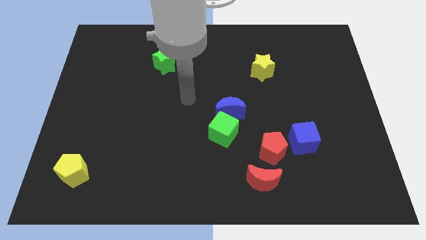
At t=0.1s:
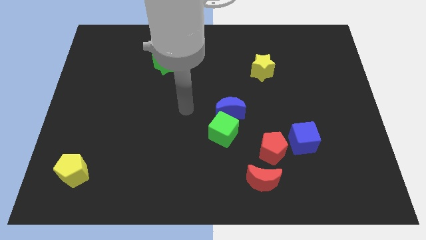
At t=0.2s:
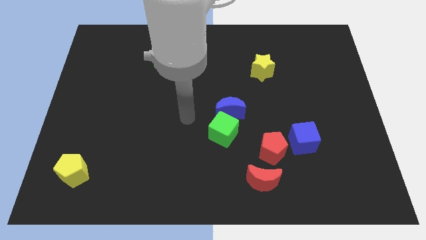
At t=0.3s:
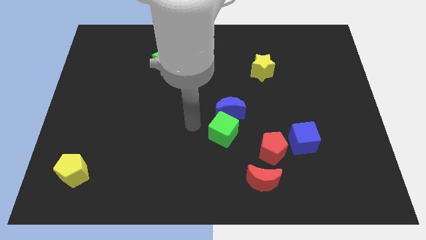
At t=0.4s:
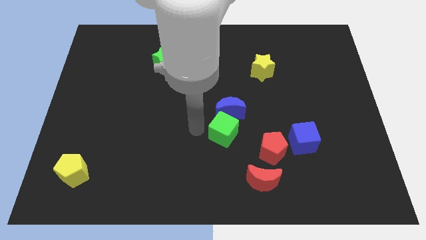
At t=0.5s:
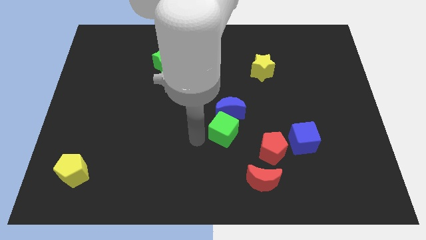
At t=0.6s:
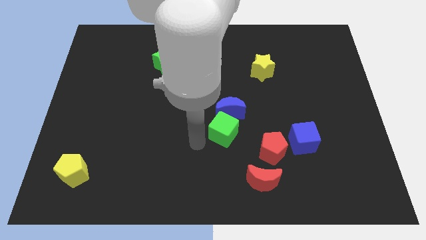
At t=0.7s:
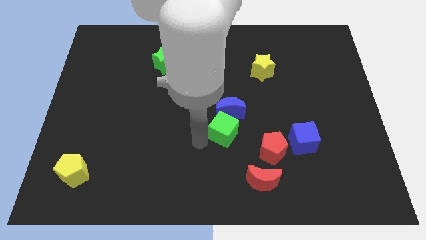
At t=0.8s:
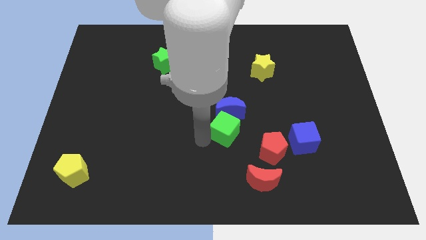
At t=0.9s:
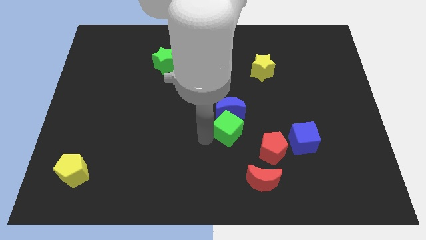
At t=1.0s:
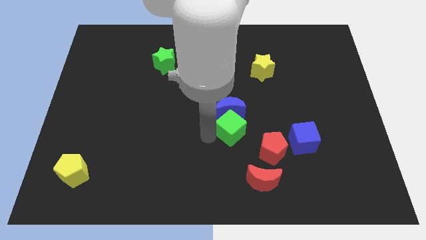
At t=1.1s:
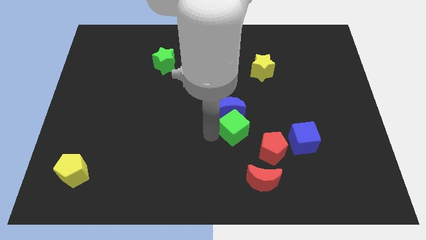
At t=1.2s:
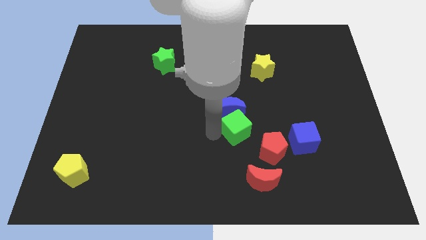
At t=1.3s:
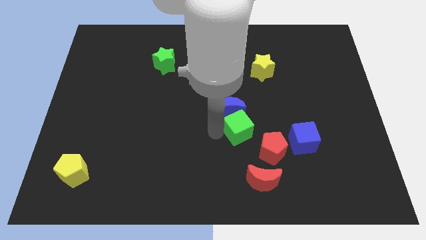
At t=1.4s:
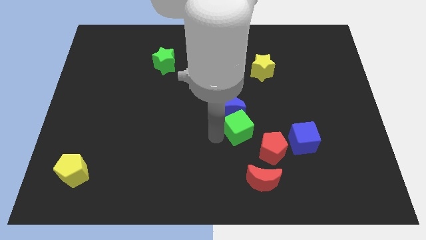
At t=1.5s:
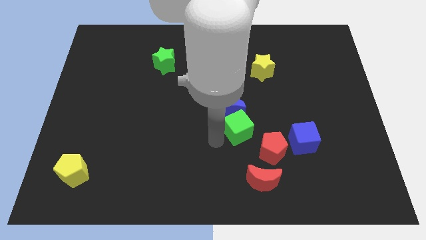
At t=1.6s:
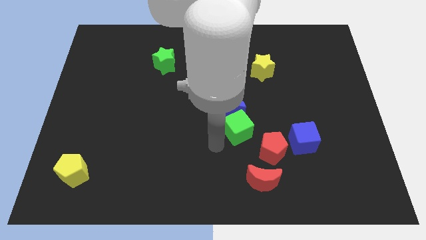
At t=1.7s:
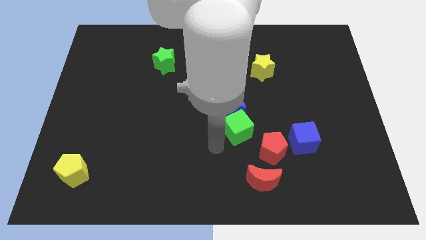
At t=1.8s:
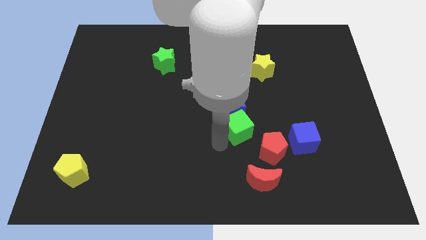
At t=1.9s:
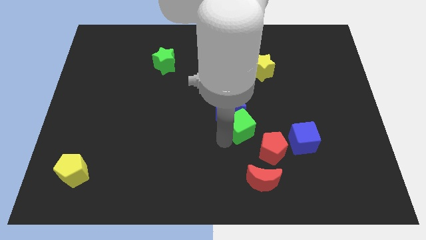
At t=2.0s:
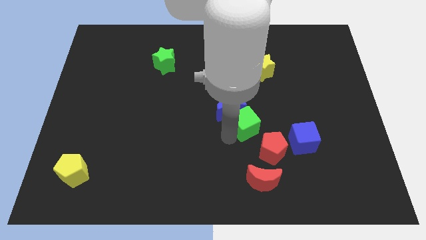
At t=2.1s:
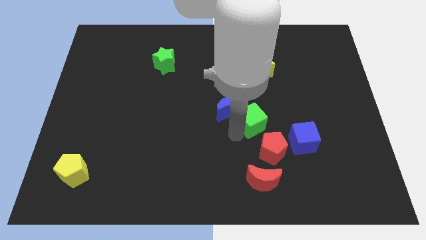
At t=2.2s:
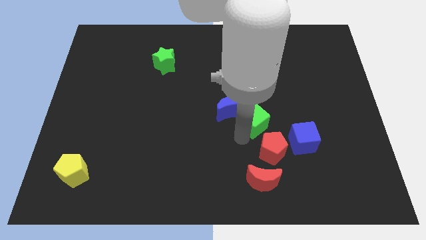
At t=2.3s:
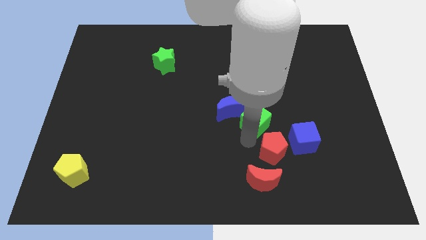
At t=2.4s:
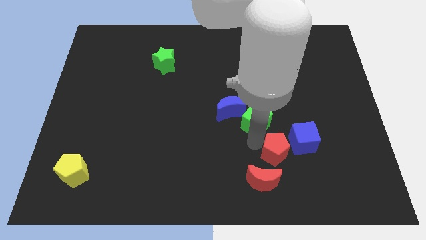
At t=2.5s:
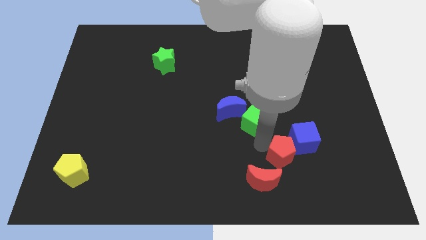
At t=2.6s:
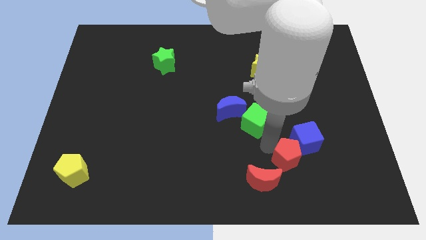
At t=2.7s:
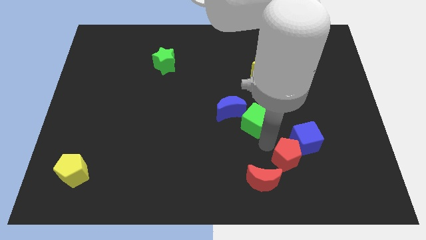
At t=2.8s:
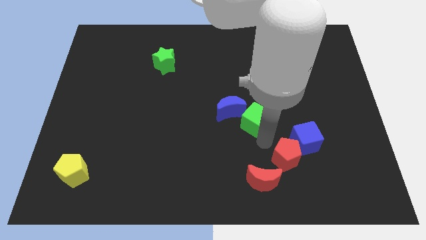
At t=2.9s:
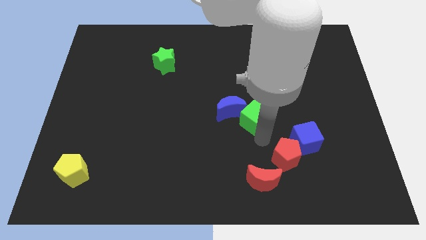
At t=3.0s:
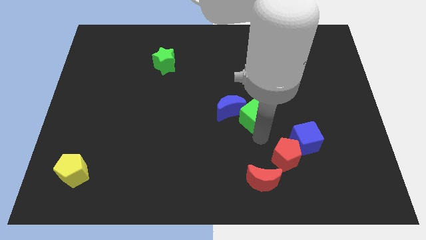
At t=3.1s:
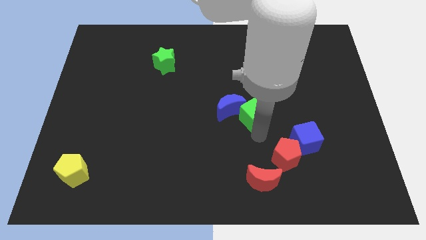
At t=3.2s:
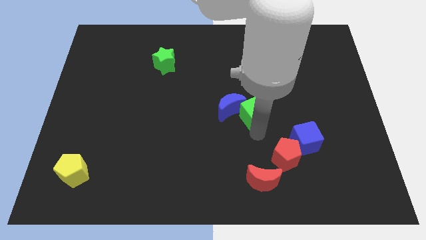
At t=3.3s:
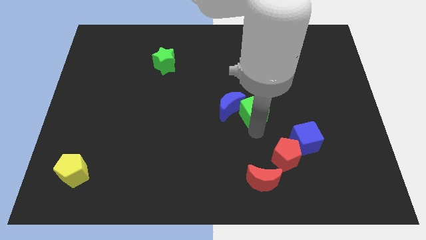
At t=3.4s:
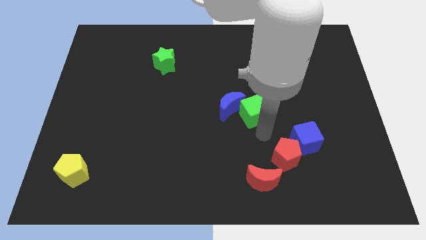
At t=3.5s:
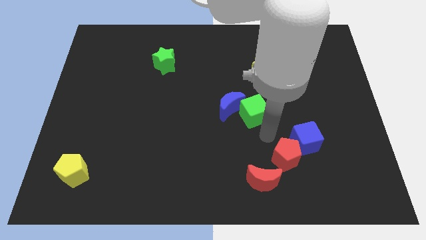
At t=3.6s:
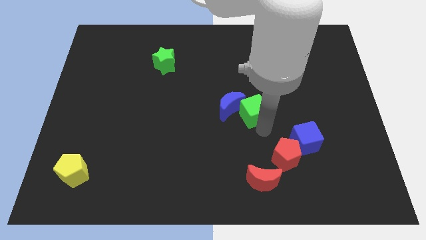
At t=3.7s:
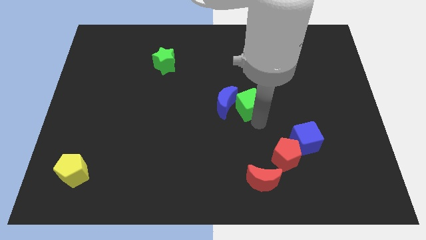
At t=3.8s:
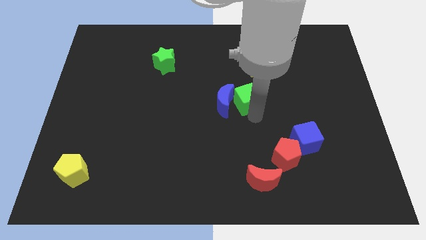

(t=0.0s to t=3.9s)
move the green cube slightly upwards

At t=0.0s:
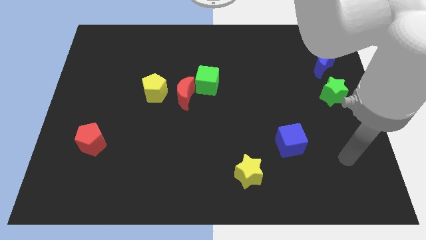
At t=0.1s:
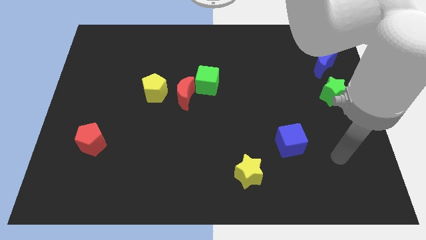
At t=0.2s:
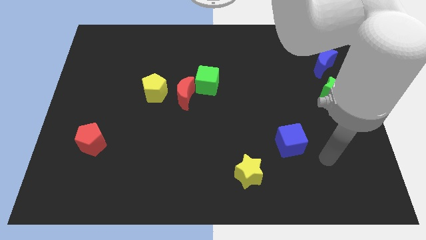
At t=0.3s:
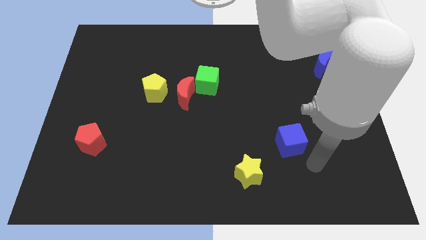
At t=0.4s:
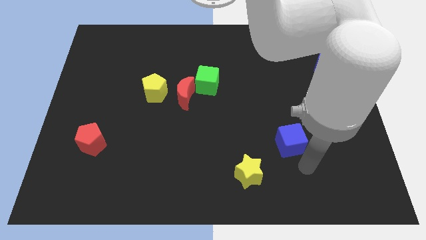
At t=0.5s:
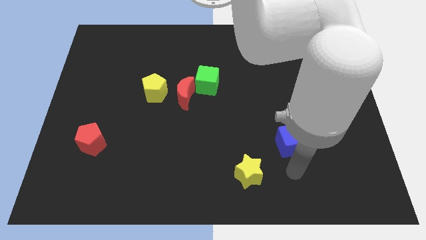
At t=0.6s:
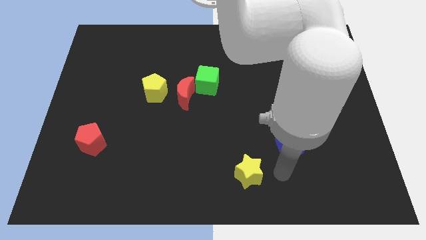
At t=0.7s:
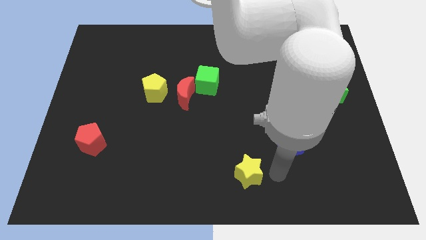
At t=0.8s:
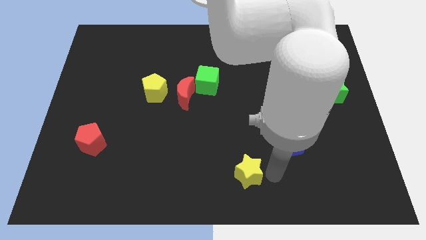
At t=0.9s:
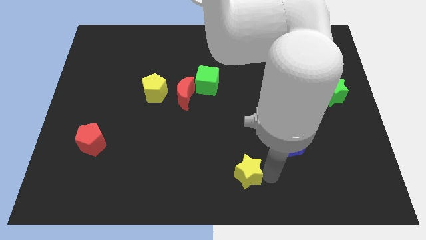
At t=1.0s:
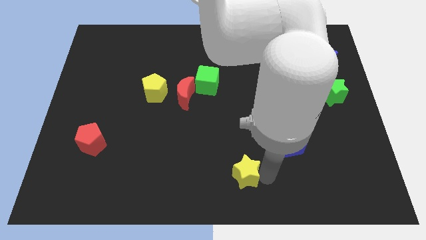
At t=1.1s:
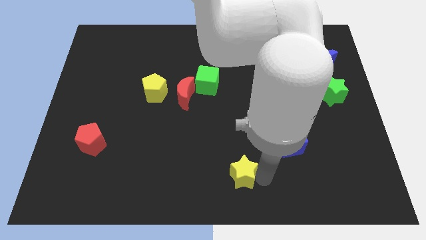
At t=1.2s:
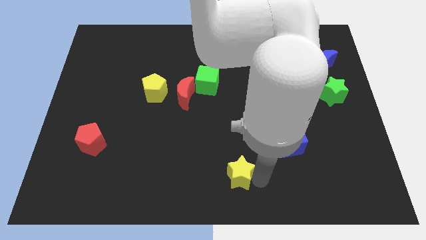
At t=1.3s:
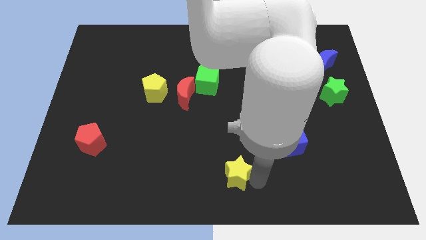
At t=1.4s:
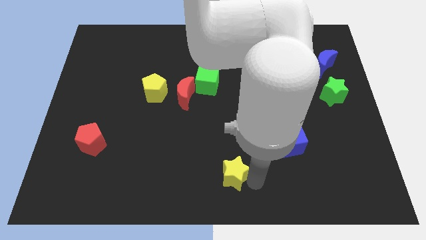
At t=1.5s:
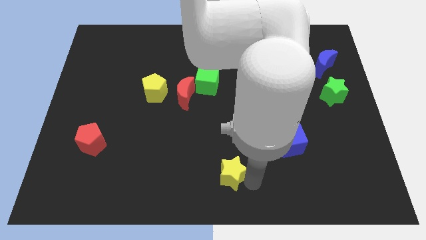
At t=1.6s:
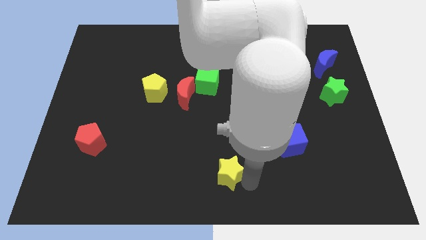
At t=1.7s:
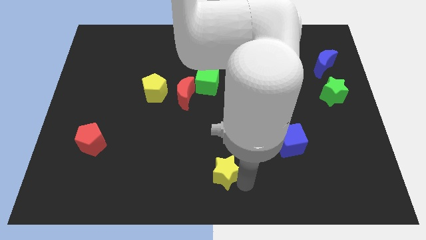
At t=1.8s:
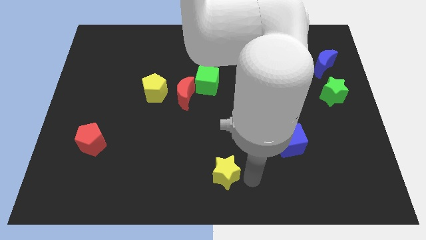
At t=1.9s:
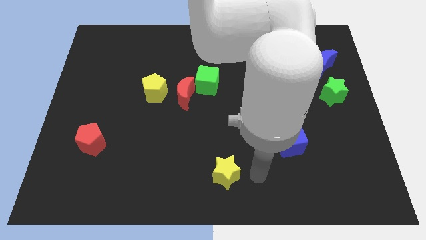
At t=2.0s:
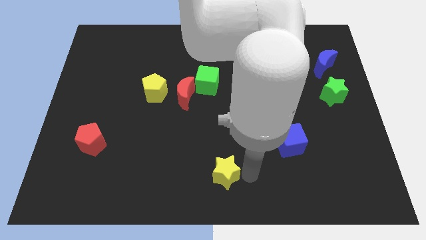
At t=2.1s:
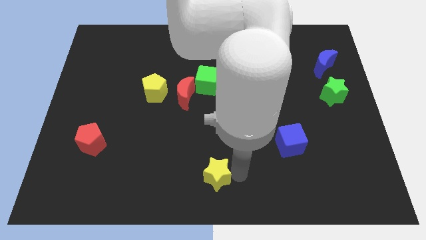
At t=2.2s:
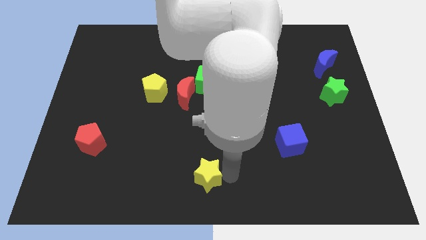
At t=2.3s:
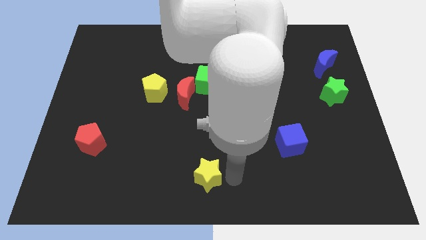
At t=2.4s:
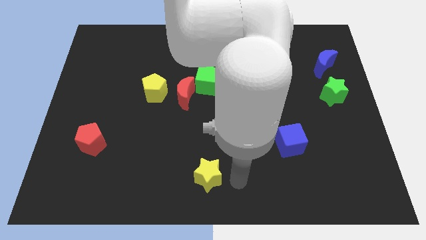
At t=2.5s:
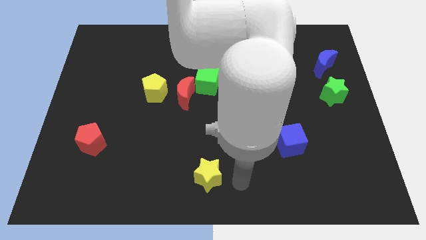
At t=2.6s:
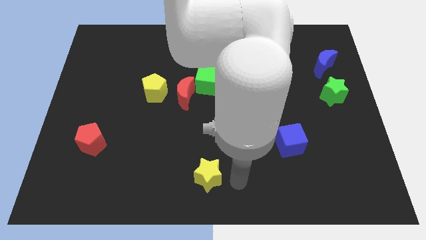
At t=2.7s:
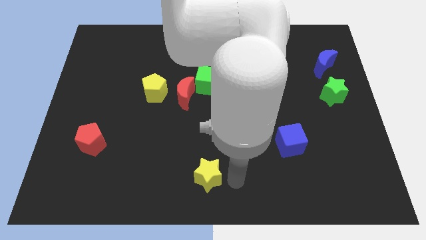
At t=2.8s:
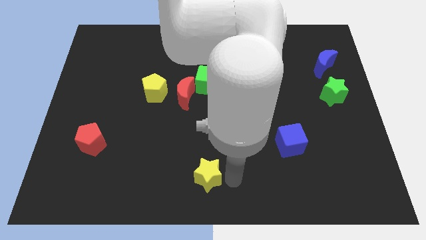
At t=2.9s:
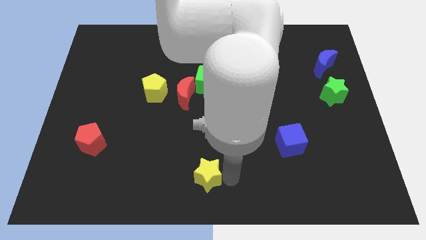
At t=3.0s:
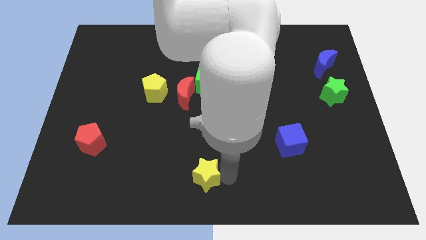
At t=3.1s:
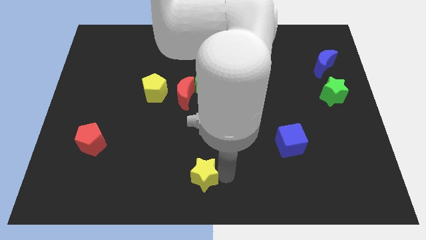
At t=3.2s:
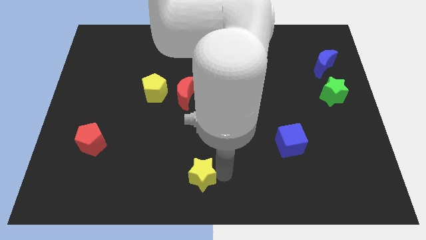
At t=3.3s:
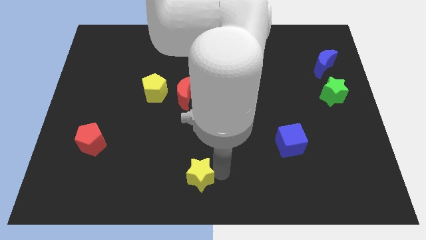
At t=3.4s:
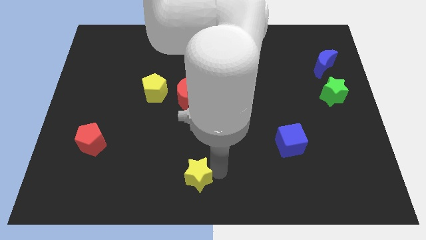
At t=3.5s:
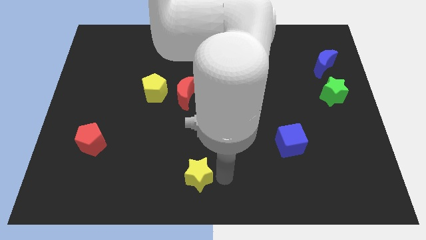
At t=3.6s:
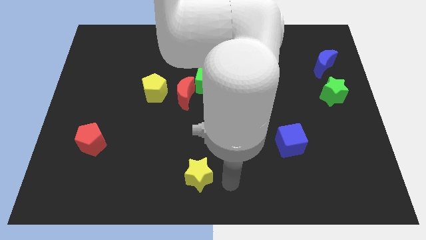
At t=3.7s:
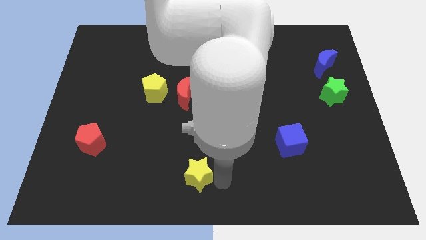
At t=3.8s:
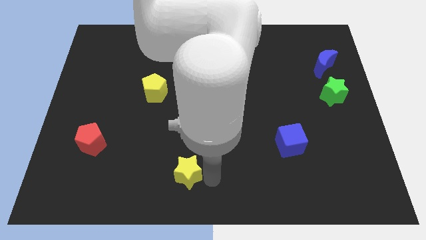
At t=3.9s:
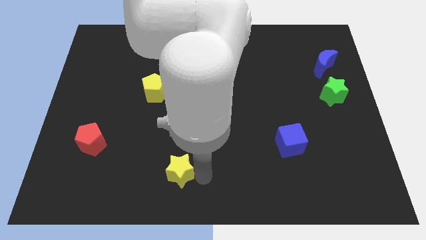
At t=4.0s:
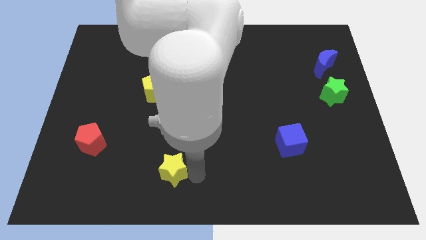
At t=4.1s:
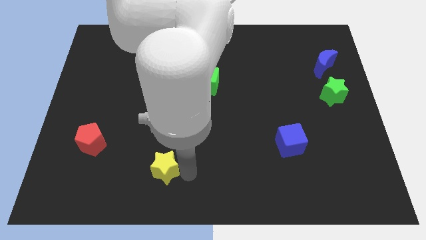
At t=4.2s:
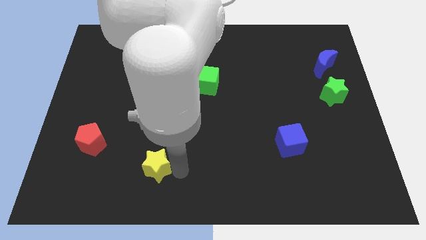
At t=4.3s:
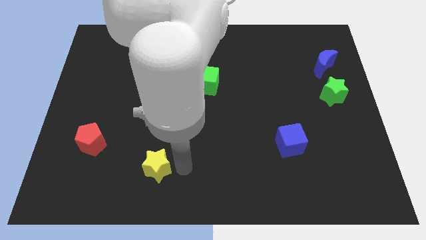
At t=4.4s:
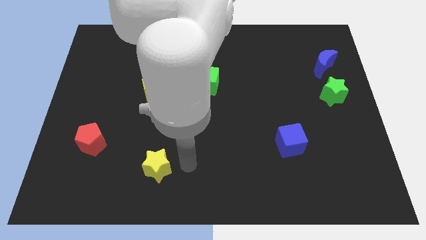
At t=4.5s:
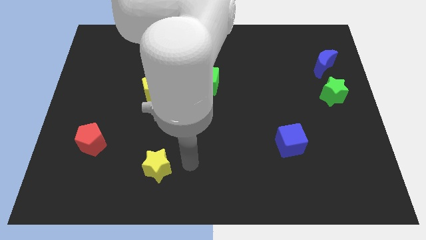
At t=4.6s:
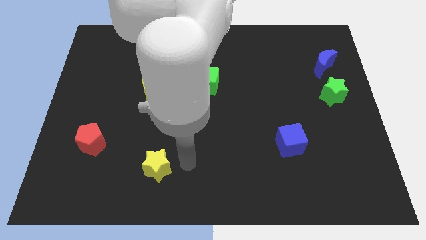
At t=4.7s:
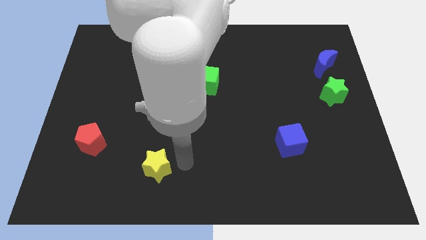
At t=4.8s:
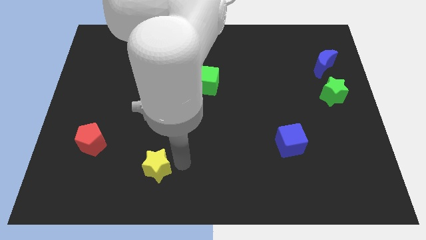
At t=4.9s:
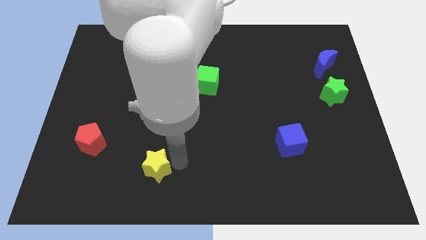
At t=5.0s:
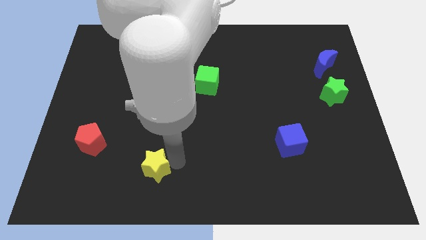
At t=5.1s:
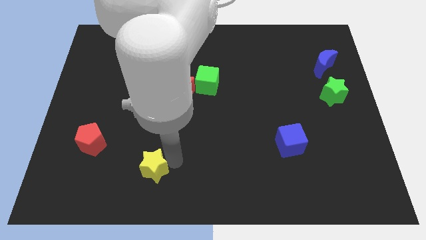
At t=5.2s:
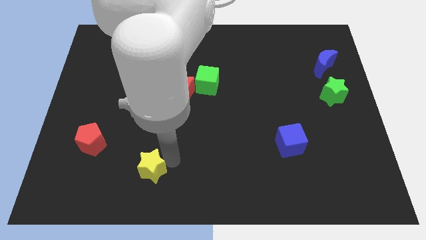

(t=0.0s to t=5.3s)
slide the yellow star left
